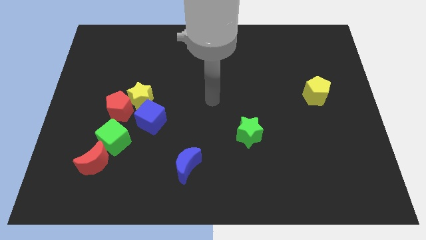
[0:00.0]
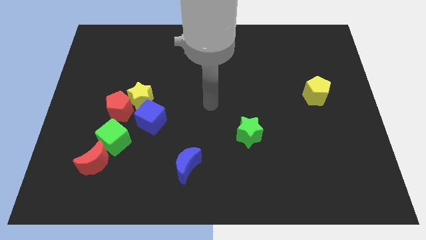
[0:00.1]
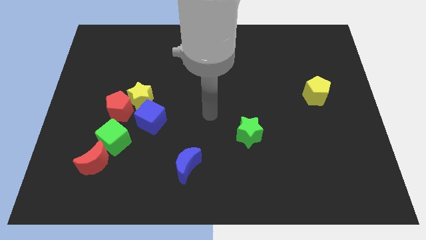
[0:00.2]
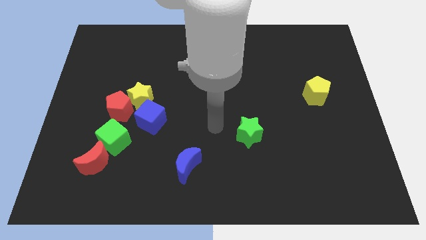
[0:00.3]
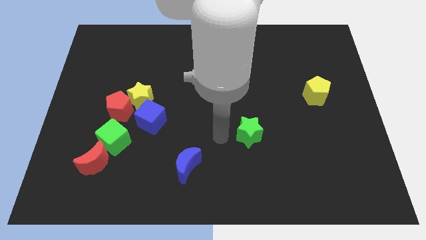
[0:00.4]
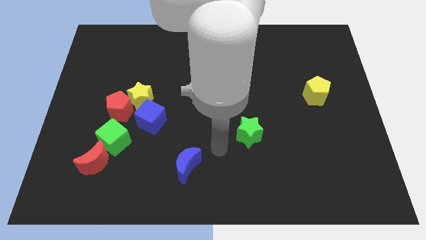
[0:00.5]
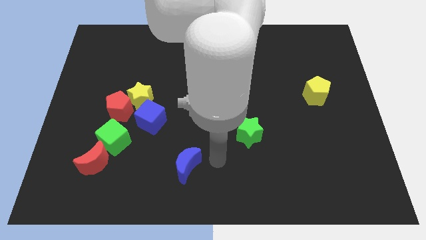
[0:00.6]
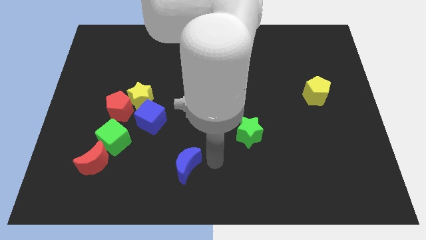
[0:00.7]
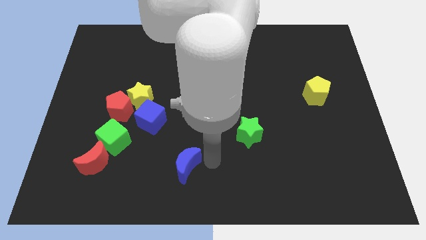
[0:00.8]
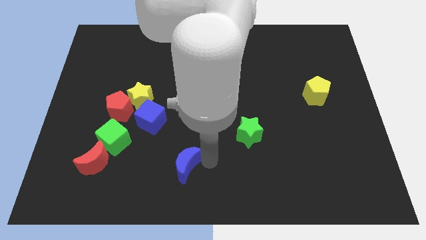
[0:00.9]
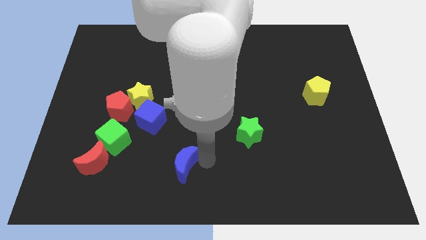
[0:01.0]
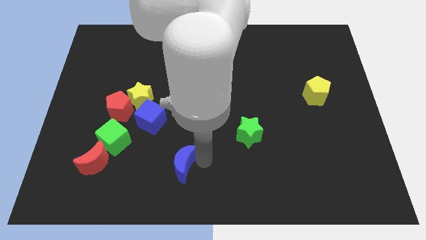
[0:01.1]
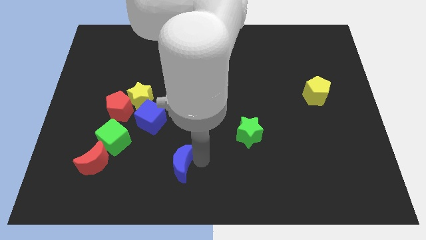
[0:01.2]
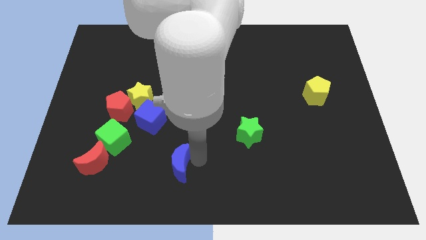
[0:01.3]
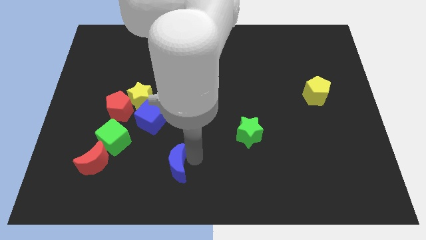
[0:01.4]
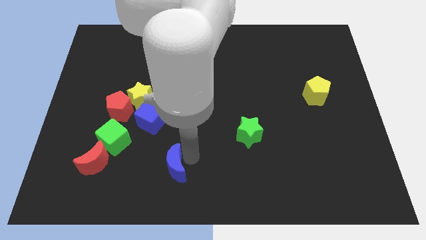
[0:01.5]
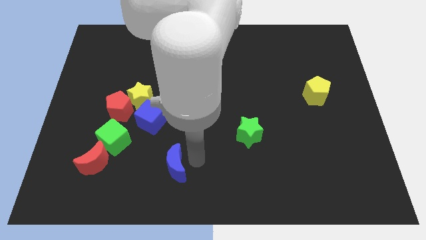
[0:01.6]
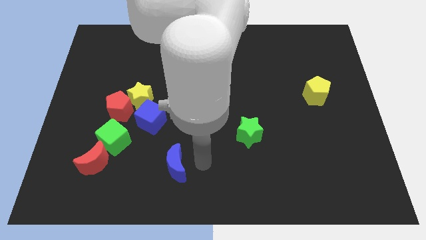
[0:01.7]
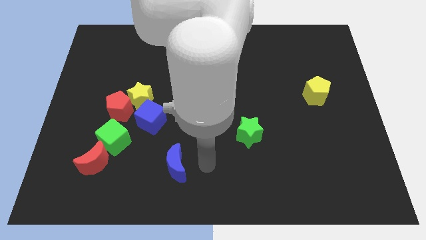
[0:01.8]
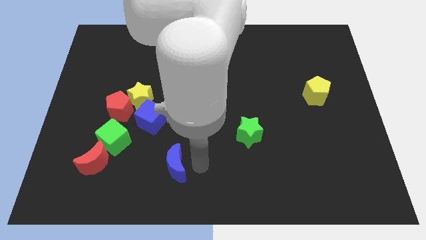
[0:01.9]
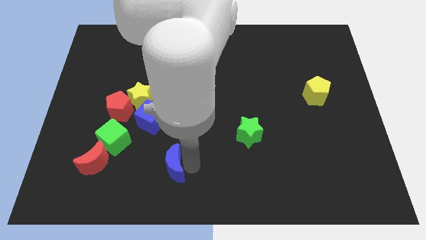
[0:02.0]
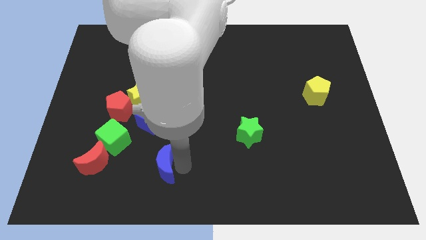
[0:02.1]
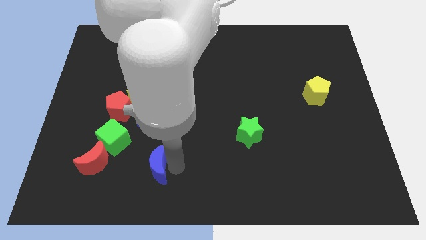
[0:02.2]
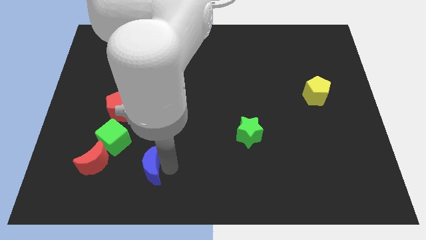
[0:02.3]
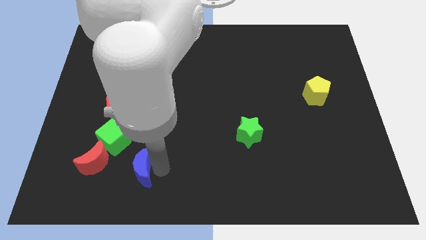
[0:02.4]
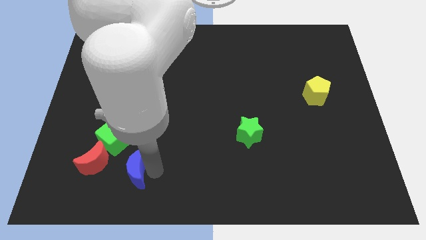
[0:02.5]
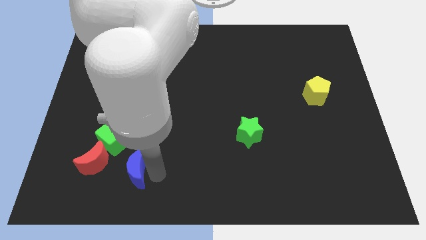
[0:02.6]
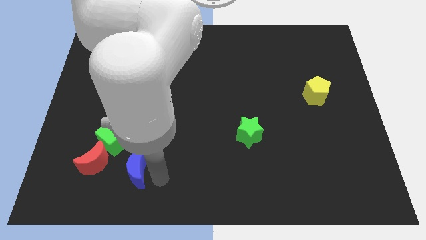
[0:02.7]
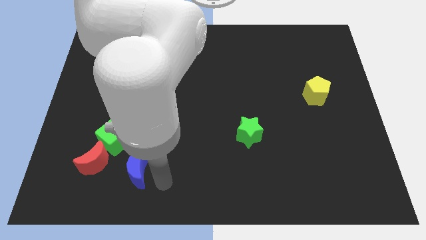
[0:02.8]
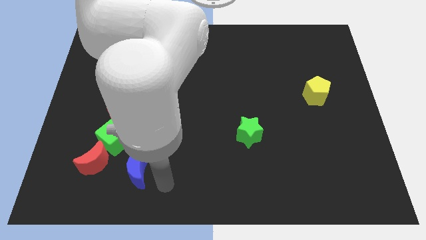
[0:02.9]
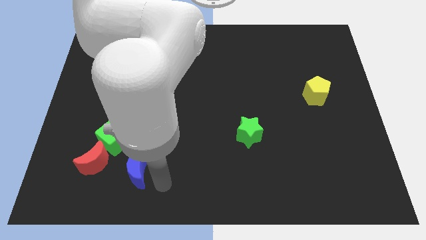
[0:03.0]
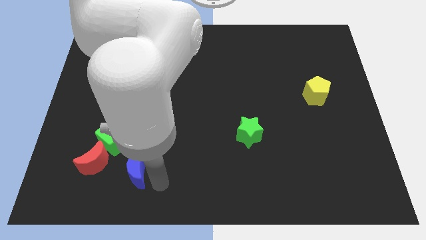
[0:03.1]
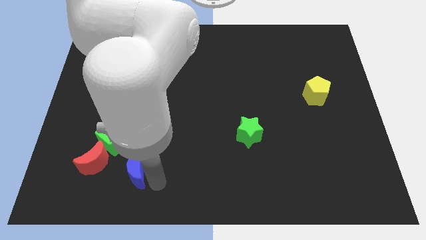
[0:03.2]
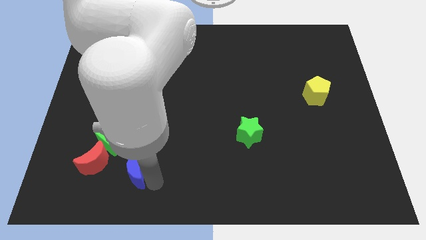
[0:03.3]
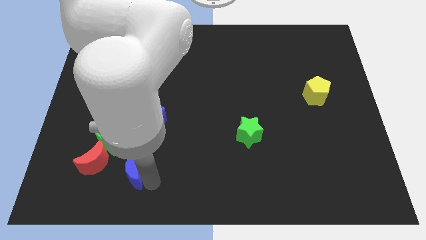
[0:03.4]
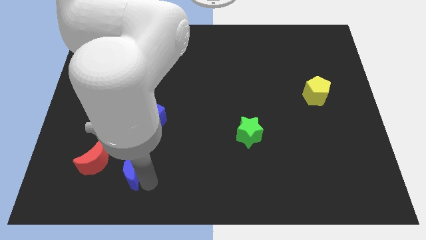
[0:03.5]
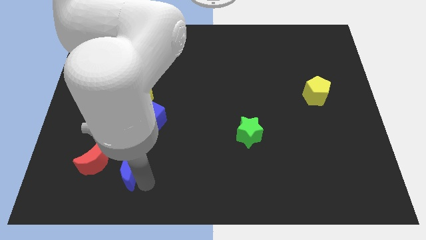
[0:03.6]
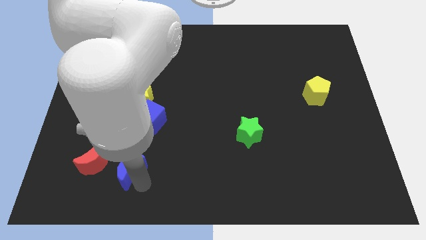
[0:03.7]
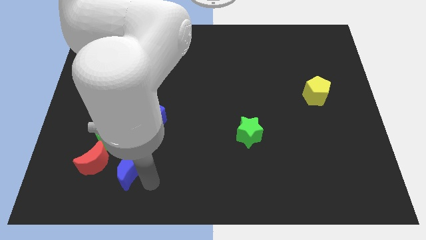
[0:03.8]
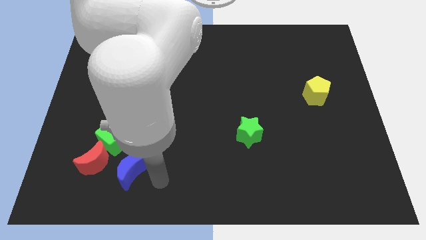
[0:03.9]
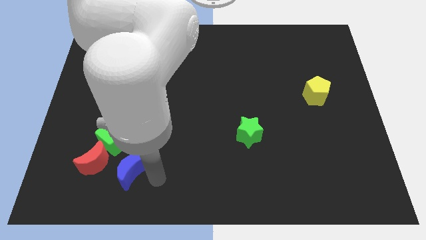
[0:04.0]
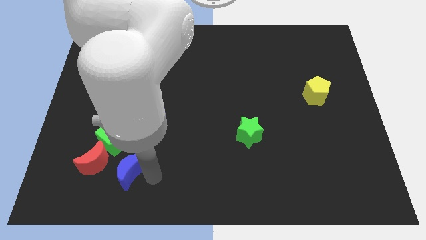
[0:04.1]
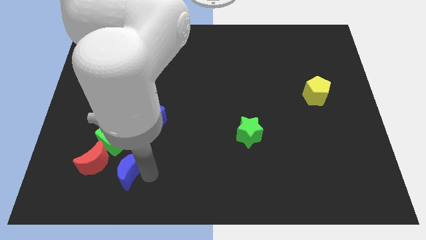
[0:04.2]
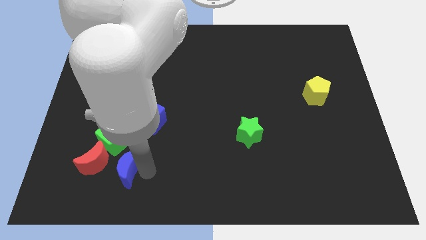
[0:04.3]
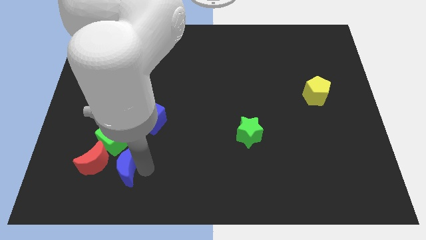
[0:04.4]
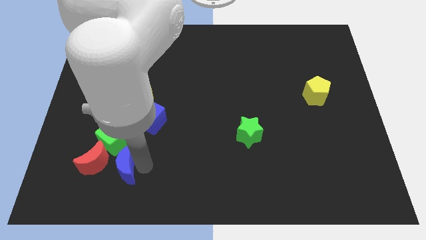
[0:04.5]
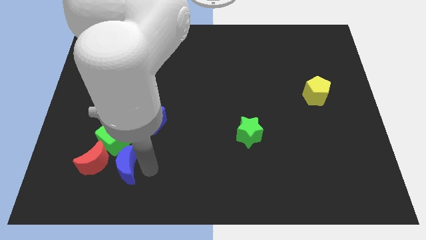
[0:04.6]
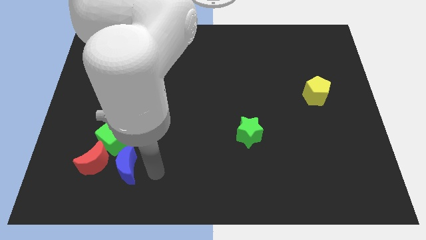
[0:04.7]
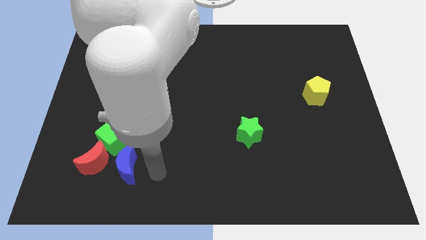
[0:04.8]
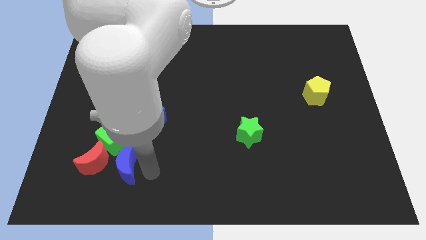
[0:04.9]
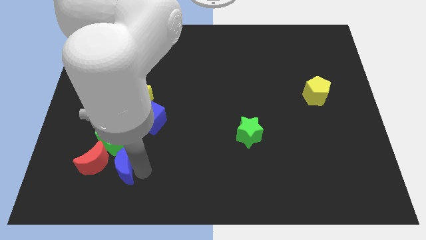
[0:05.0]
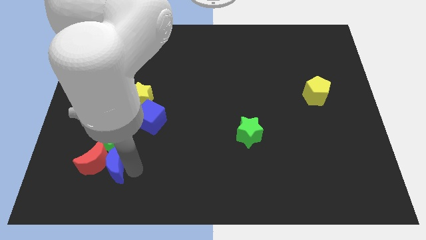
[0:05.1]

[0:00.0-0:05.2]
slide the blue moon next to the red moon

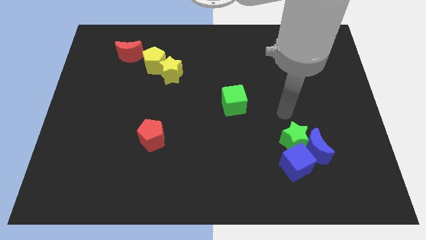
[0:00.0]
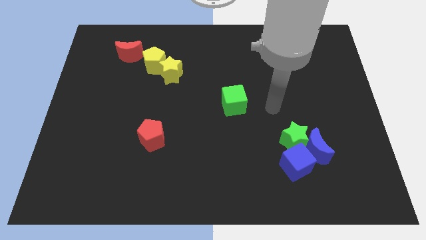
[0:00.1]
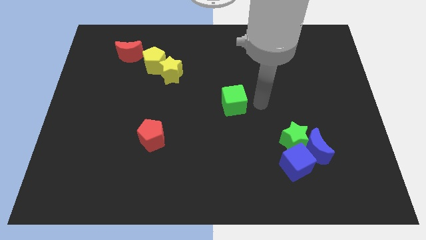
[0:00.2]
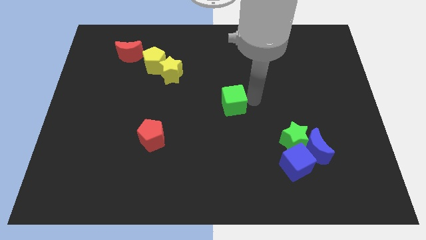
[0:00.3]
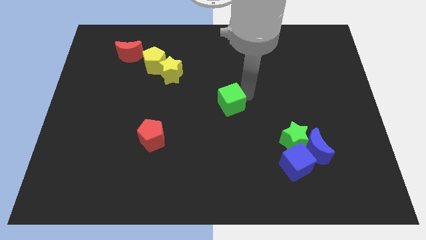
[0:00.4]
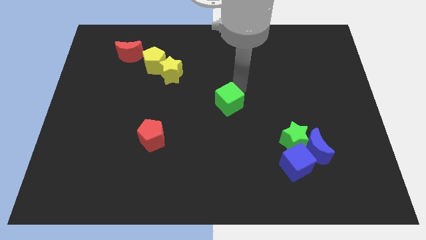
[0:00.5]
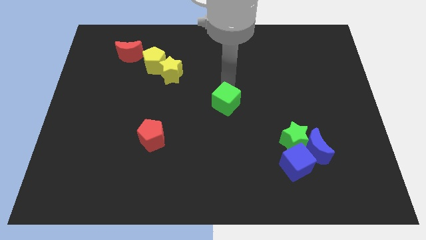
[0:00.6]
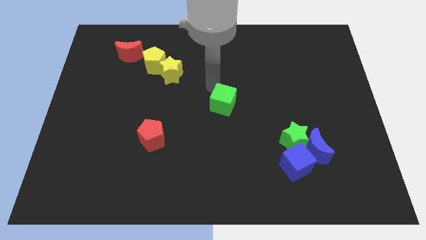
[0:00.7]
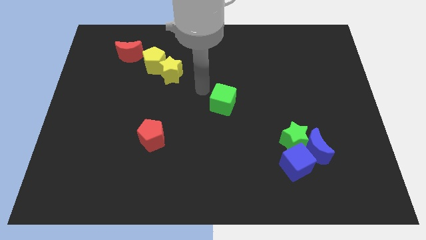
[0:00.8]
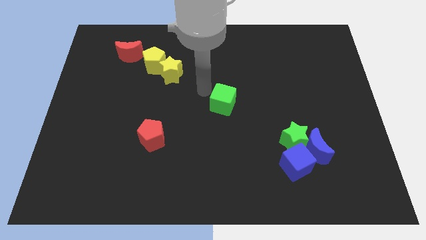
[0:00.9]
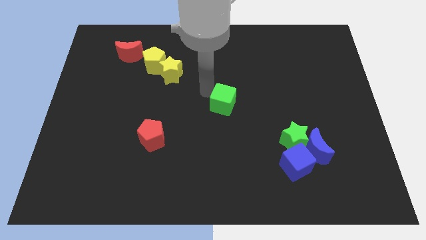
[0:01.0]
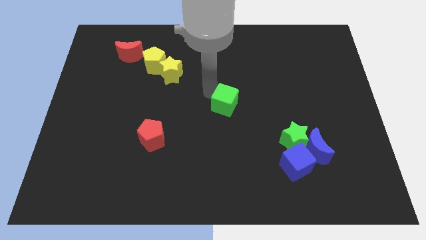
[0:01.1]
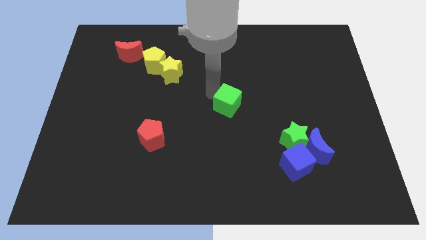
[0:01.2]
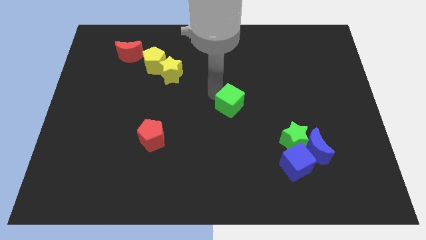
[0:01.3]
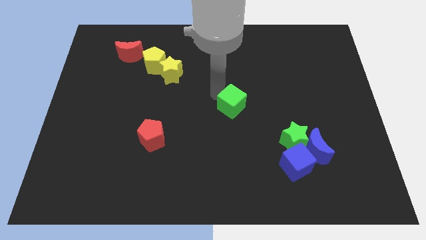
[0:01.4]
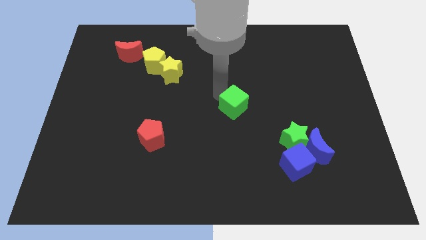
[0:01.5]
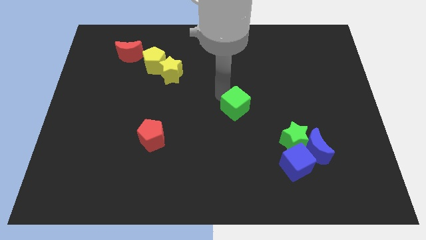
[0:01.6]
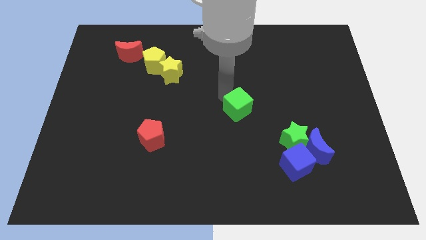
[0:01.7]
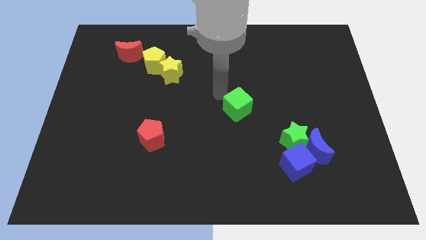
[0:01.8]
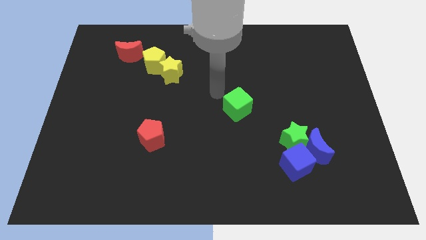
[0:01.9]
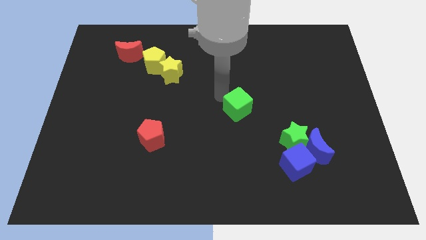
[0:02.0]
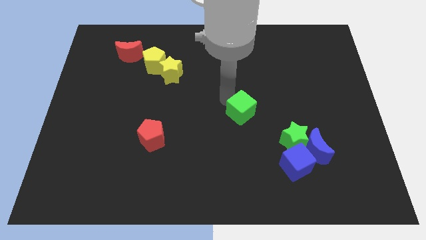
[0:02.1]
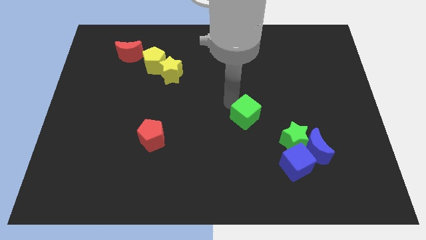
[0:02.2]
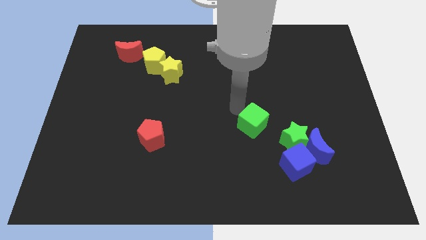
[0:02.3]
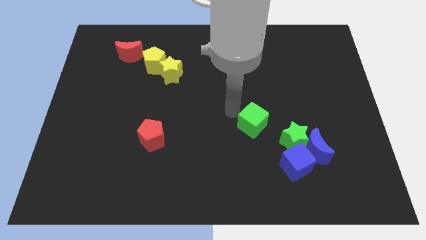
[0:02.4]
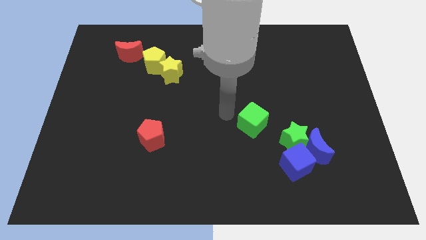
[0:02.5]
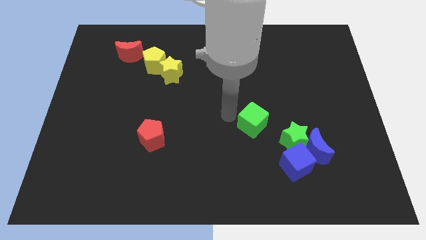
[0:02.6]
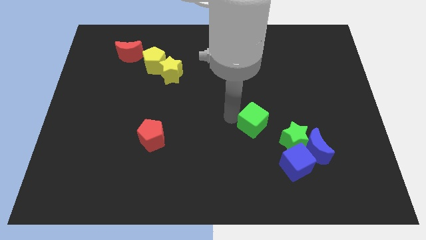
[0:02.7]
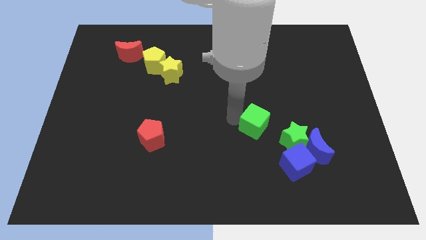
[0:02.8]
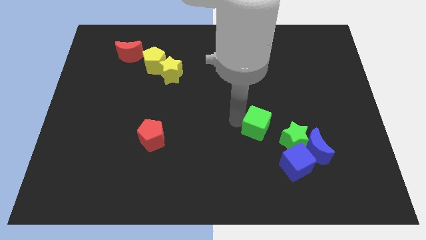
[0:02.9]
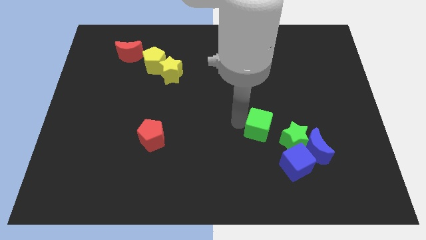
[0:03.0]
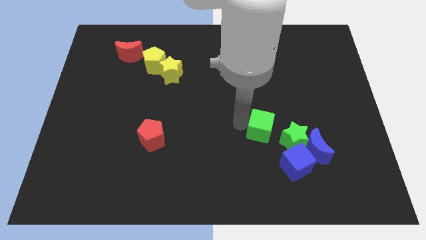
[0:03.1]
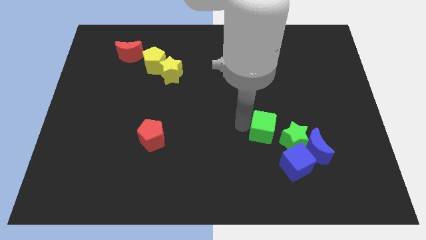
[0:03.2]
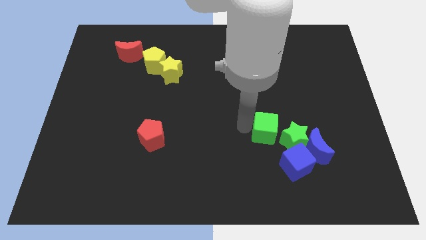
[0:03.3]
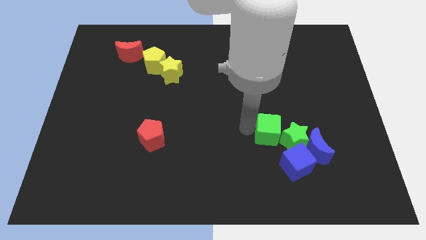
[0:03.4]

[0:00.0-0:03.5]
put the green cube close to the green star
